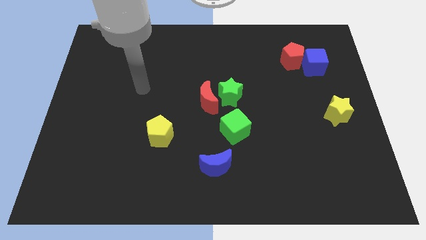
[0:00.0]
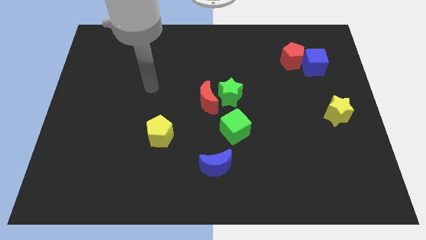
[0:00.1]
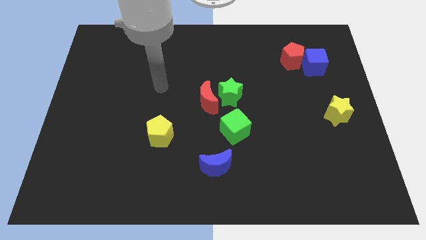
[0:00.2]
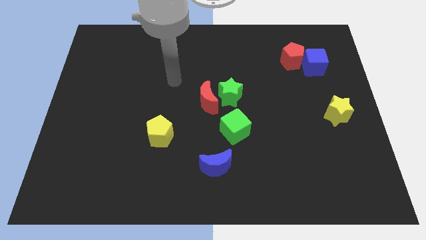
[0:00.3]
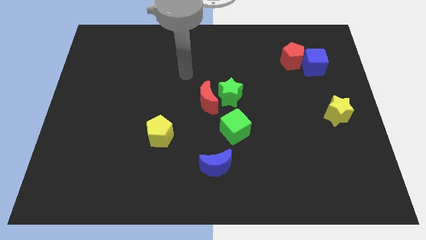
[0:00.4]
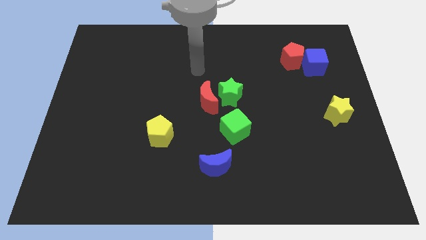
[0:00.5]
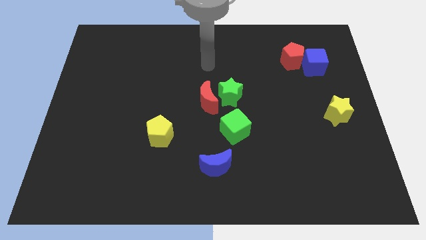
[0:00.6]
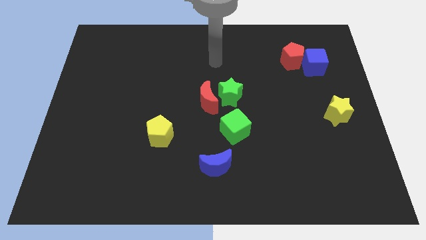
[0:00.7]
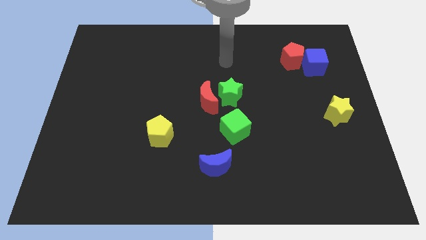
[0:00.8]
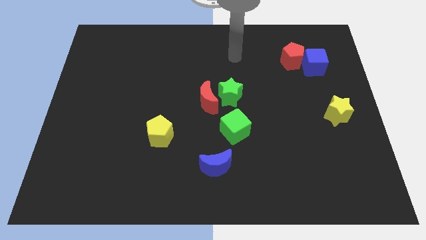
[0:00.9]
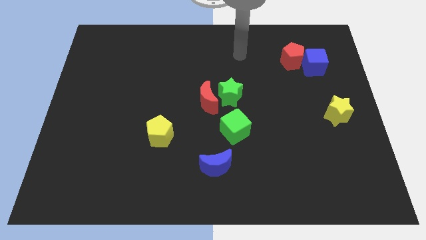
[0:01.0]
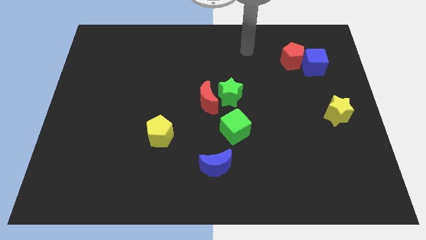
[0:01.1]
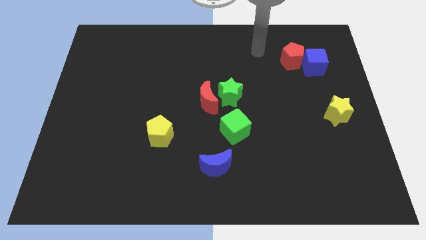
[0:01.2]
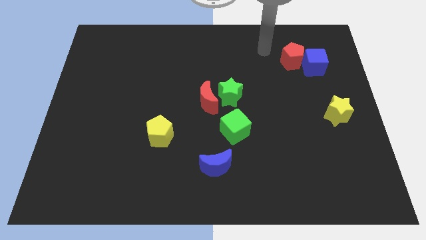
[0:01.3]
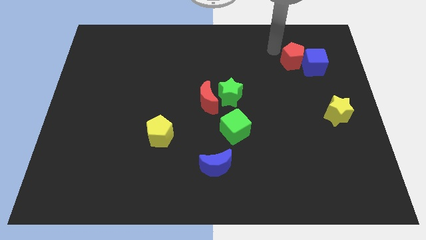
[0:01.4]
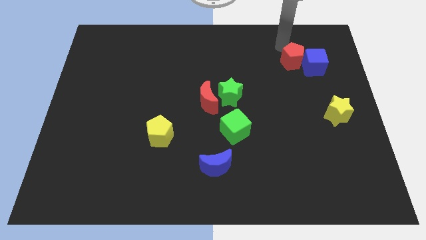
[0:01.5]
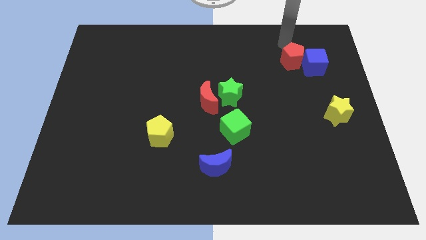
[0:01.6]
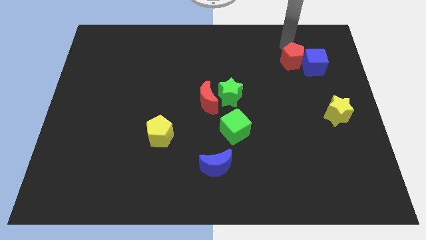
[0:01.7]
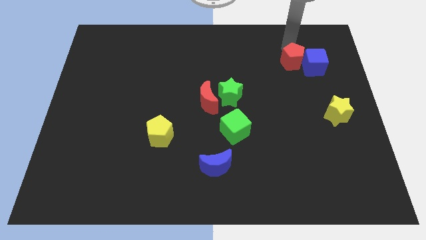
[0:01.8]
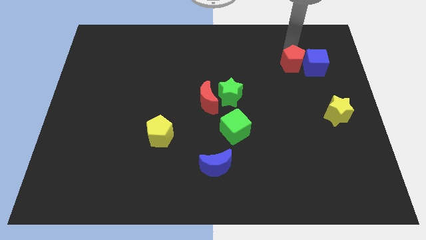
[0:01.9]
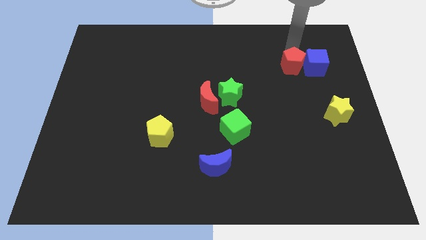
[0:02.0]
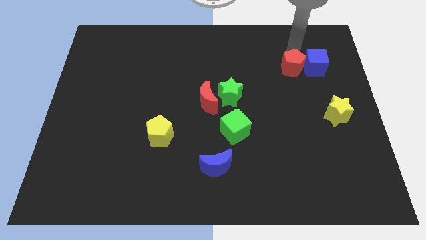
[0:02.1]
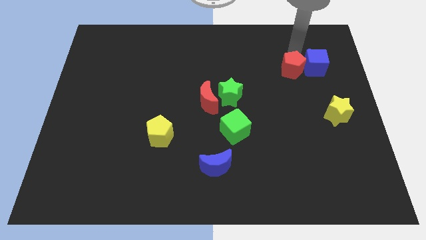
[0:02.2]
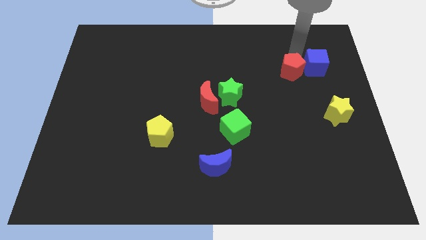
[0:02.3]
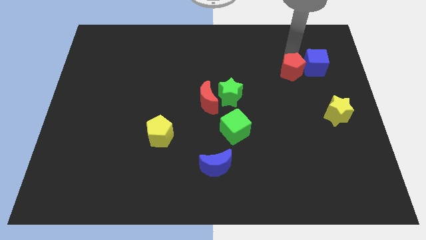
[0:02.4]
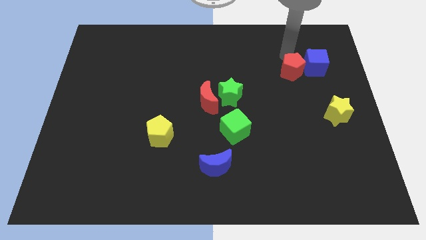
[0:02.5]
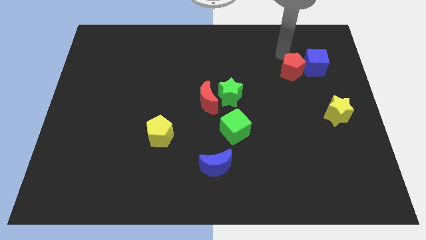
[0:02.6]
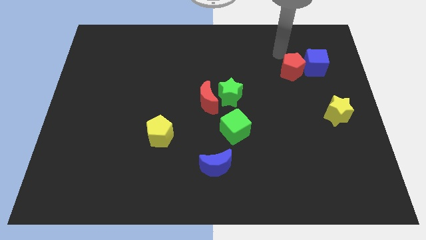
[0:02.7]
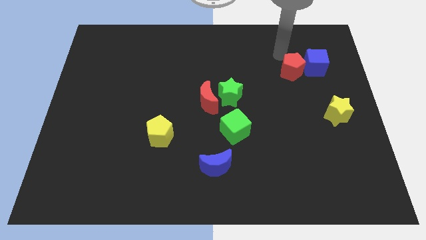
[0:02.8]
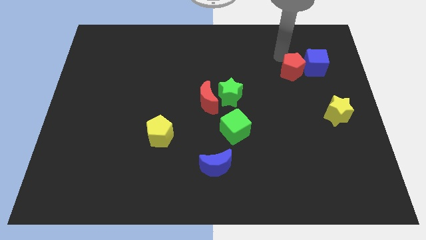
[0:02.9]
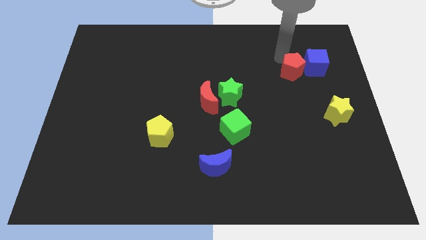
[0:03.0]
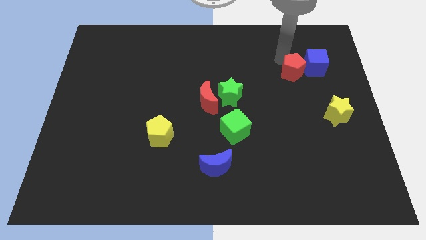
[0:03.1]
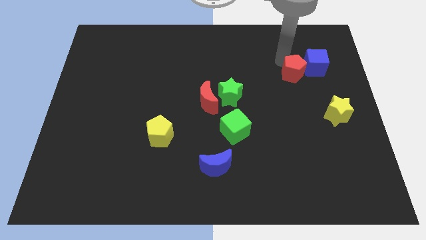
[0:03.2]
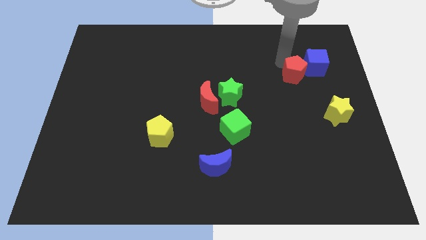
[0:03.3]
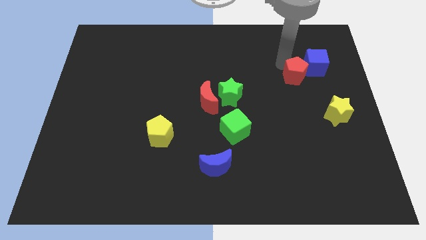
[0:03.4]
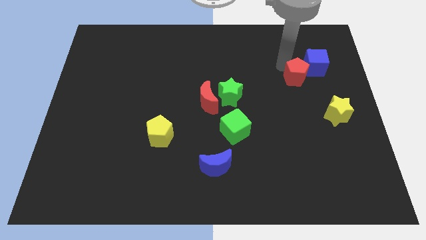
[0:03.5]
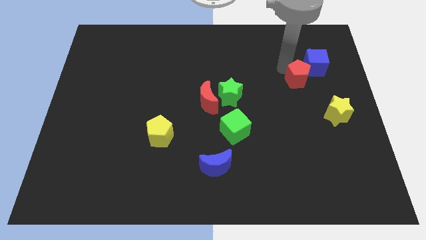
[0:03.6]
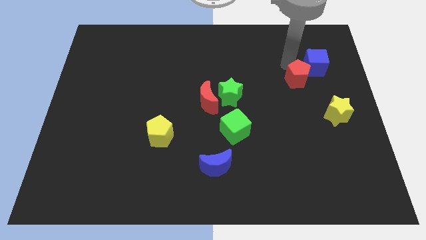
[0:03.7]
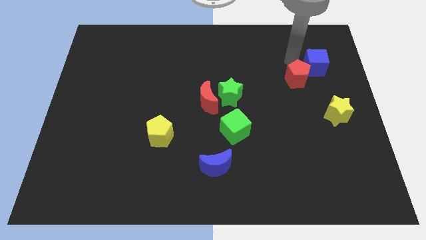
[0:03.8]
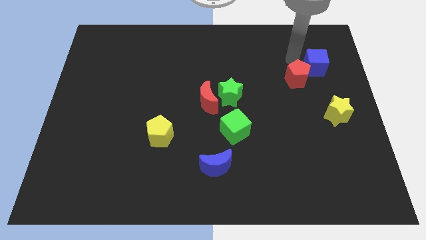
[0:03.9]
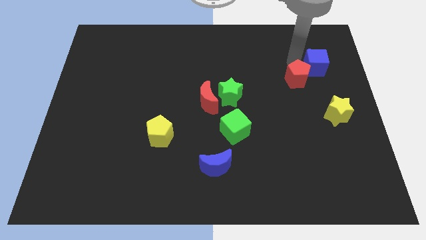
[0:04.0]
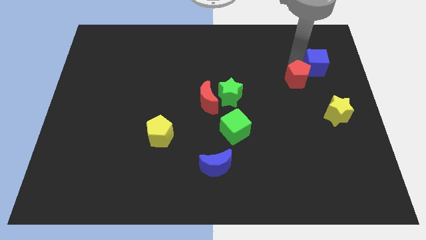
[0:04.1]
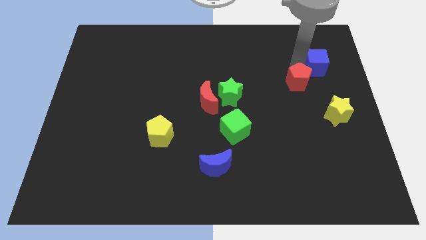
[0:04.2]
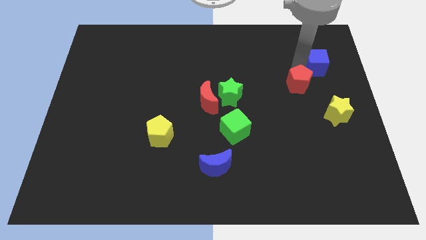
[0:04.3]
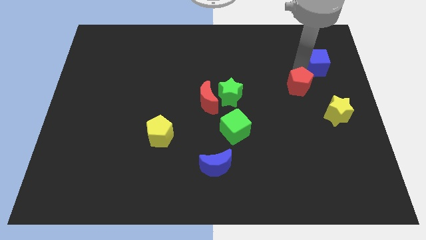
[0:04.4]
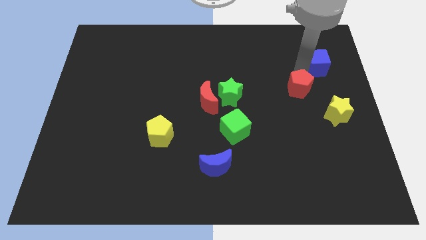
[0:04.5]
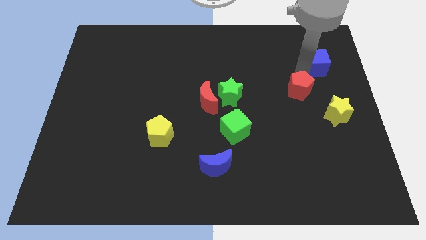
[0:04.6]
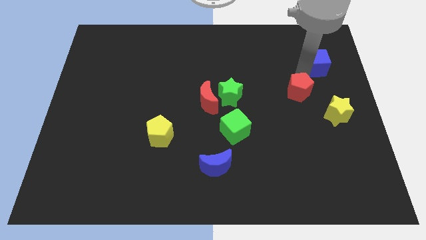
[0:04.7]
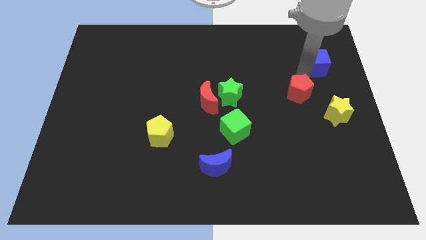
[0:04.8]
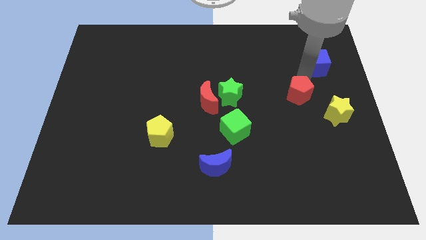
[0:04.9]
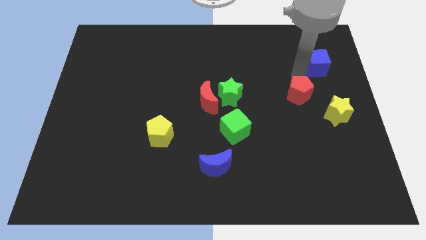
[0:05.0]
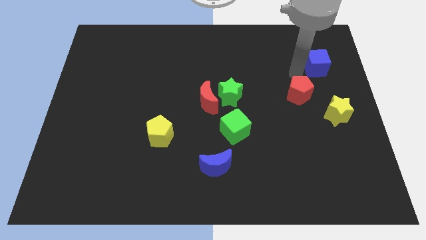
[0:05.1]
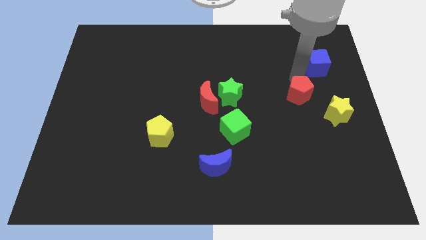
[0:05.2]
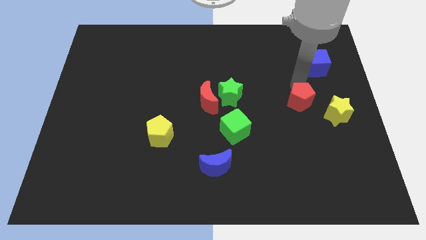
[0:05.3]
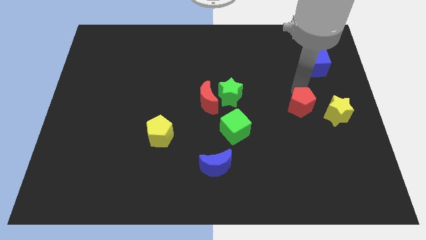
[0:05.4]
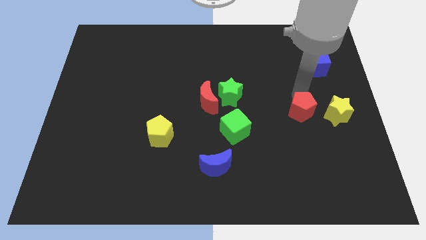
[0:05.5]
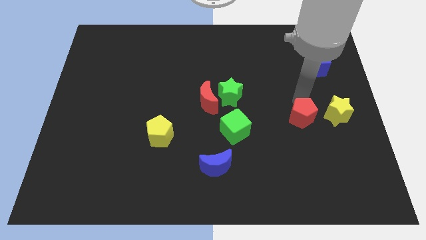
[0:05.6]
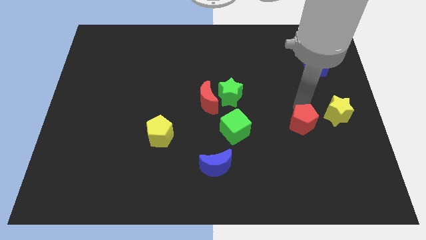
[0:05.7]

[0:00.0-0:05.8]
move the red pentagon down

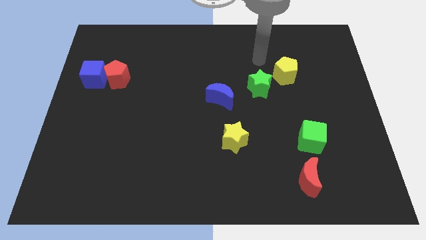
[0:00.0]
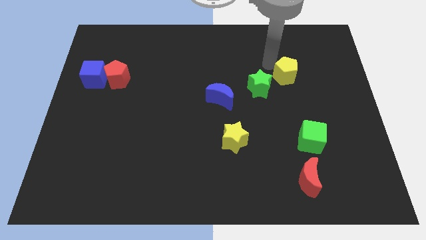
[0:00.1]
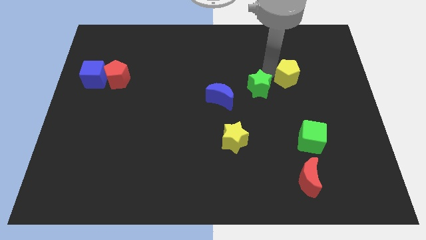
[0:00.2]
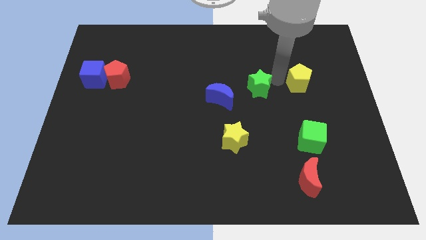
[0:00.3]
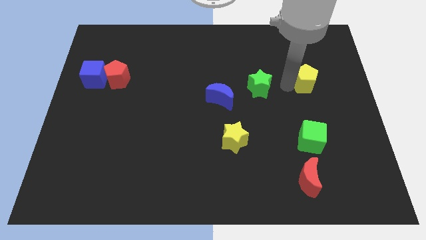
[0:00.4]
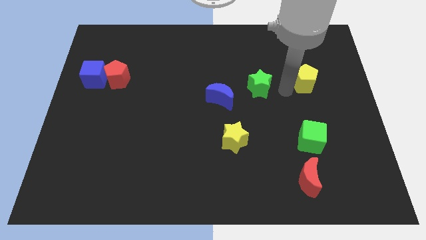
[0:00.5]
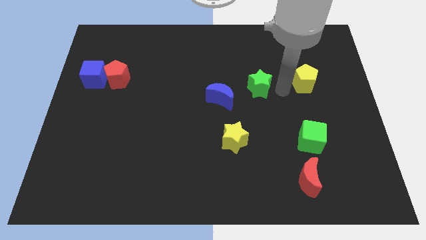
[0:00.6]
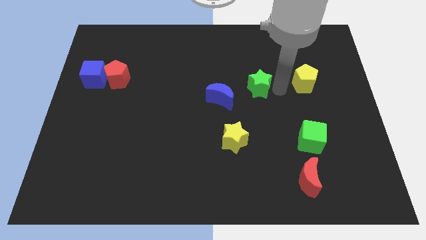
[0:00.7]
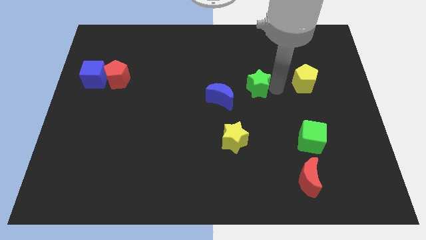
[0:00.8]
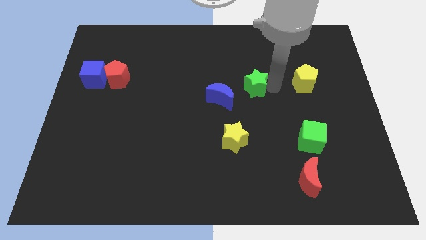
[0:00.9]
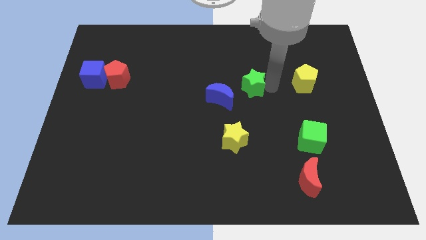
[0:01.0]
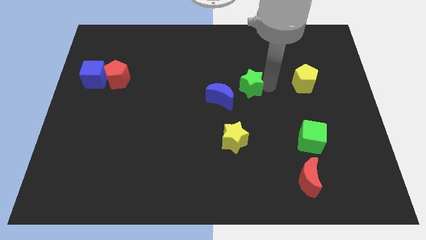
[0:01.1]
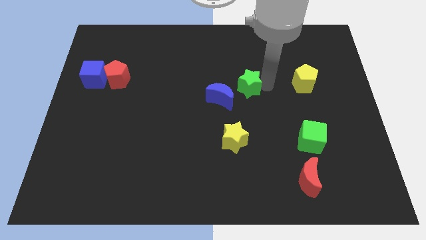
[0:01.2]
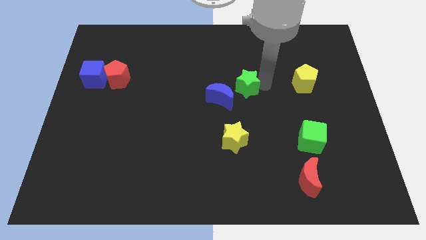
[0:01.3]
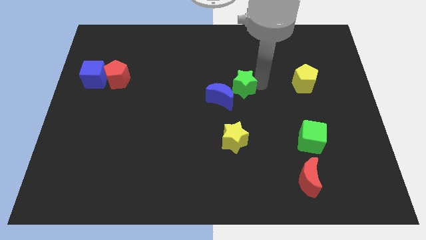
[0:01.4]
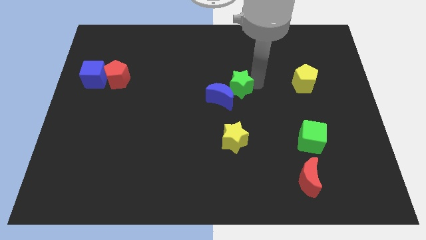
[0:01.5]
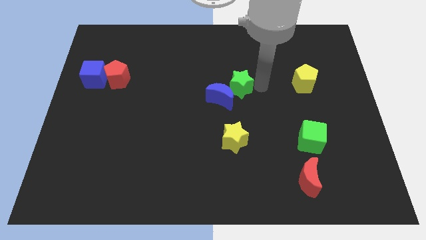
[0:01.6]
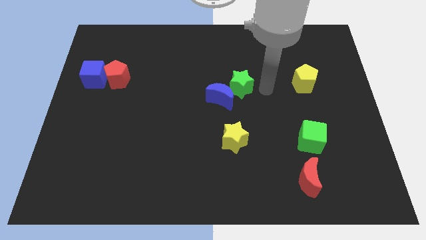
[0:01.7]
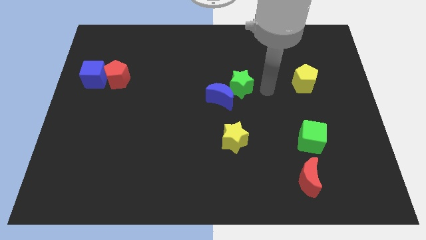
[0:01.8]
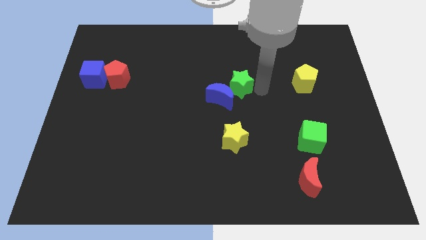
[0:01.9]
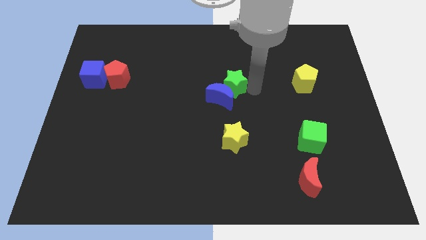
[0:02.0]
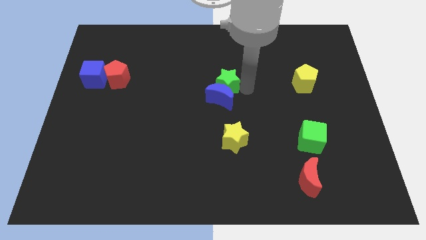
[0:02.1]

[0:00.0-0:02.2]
move the green star to the left slightly
